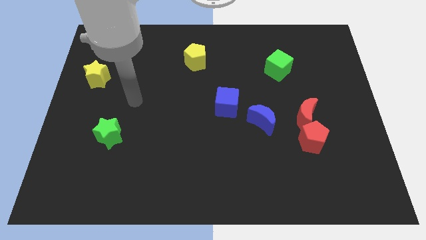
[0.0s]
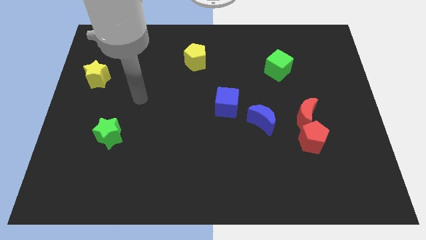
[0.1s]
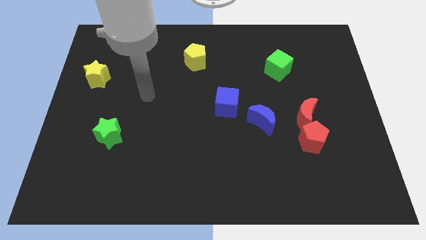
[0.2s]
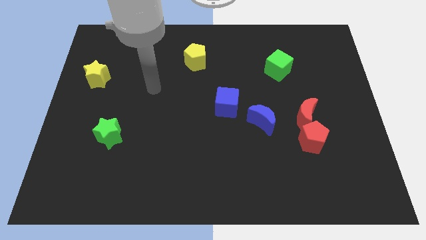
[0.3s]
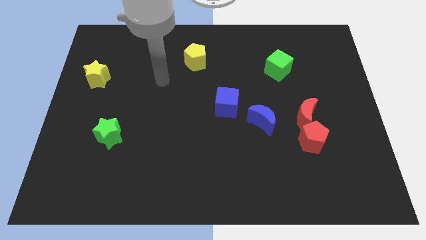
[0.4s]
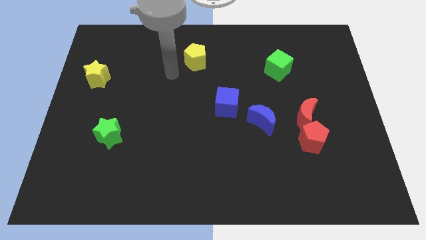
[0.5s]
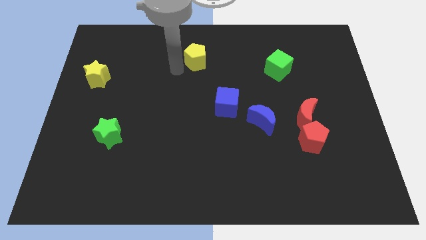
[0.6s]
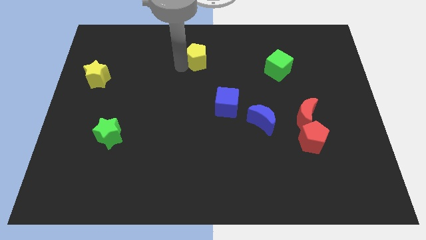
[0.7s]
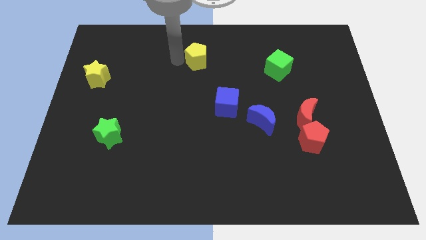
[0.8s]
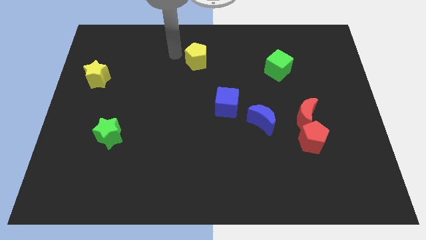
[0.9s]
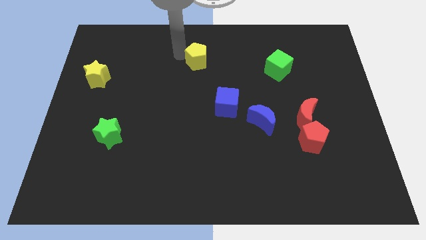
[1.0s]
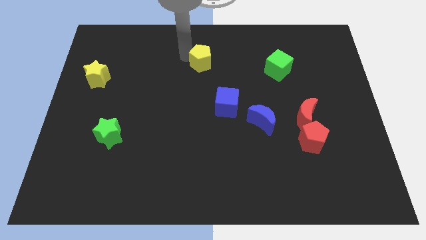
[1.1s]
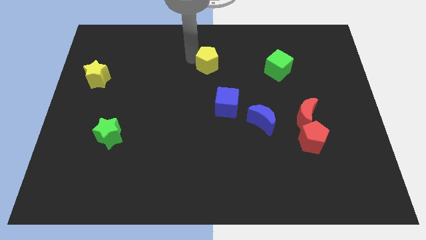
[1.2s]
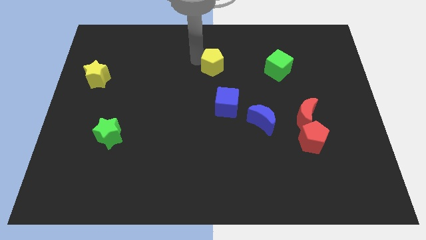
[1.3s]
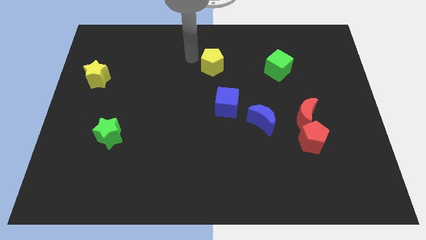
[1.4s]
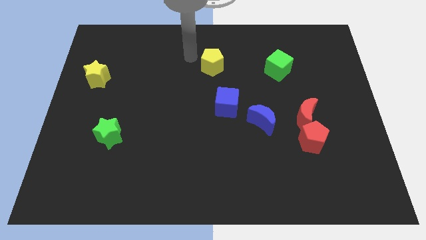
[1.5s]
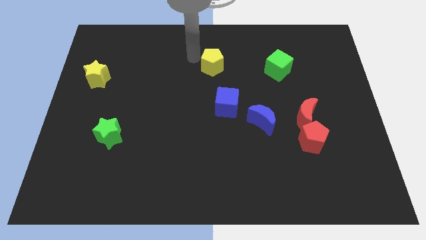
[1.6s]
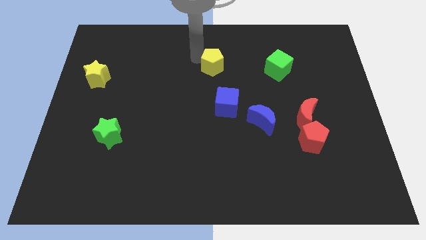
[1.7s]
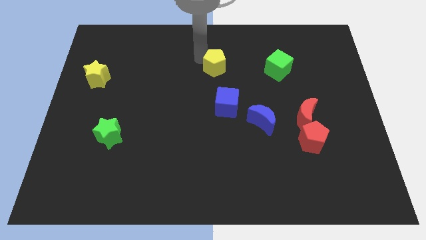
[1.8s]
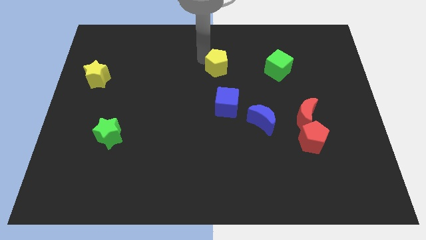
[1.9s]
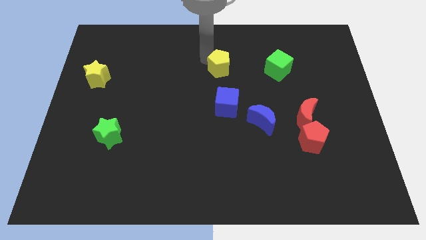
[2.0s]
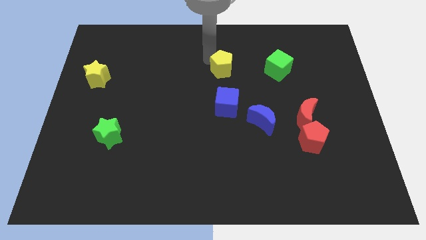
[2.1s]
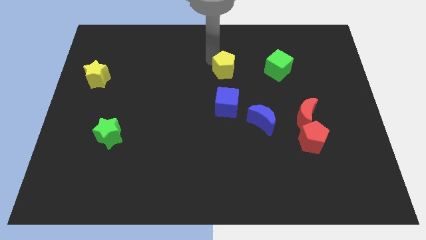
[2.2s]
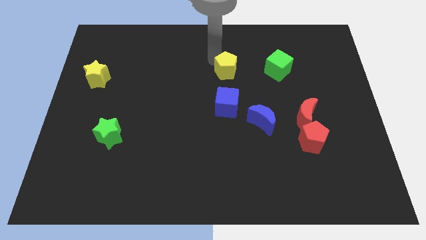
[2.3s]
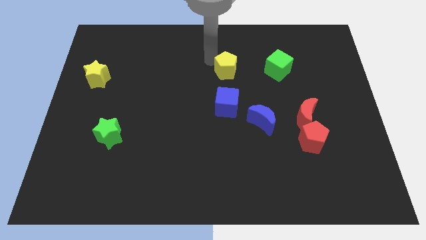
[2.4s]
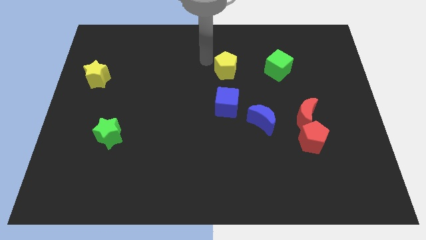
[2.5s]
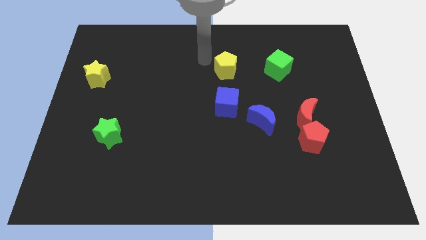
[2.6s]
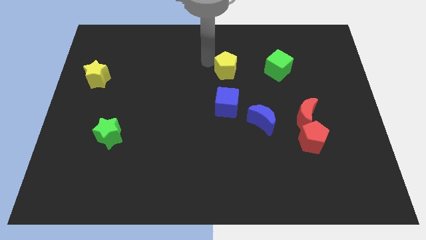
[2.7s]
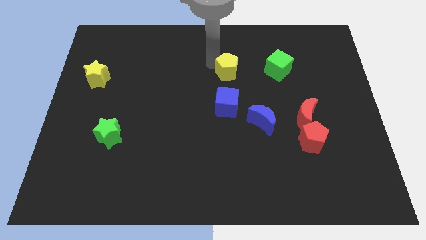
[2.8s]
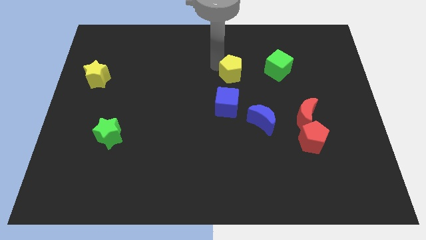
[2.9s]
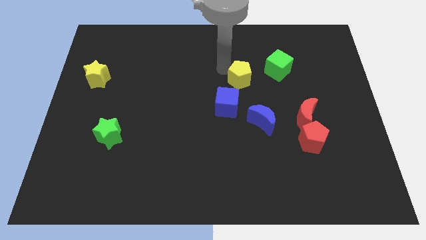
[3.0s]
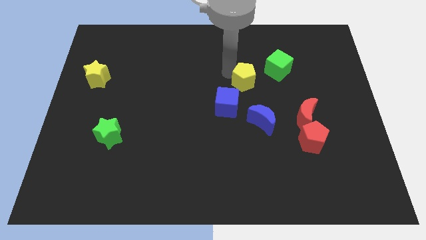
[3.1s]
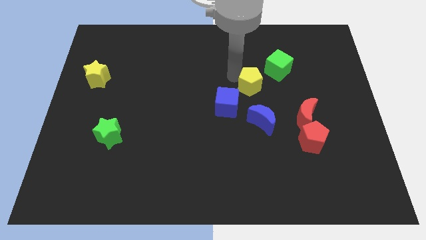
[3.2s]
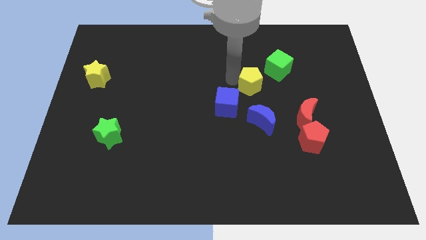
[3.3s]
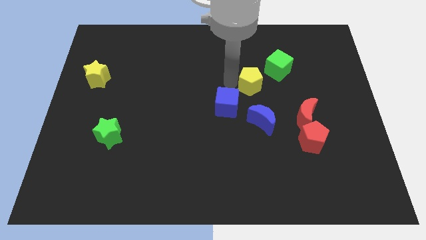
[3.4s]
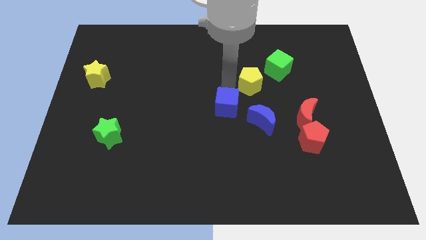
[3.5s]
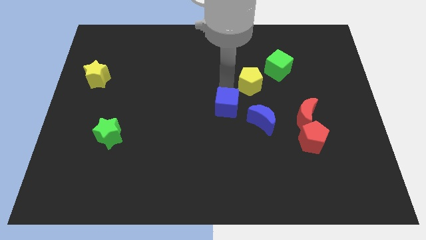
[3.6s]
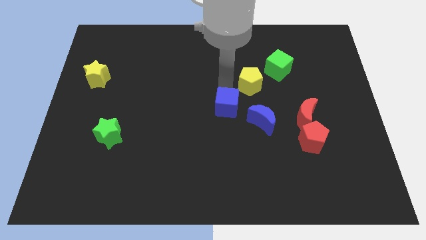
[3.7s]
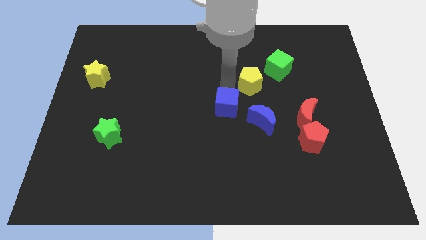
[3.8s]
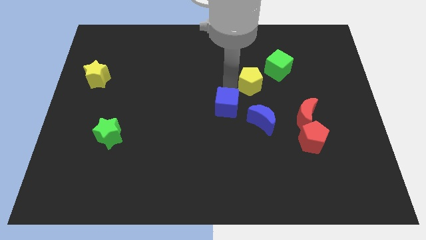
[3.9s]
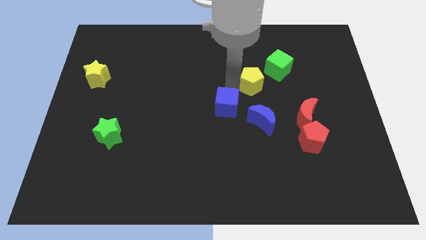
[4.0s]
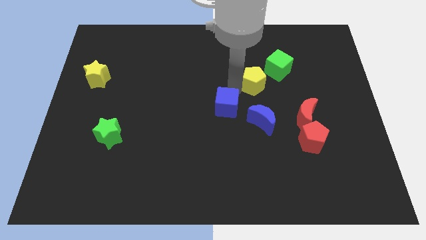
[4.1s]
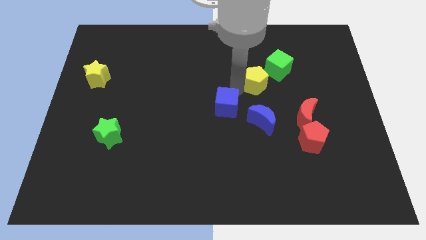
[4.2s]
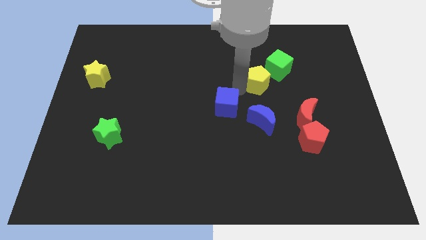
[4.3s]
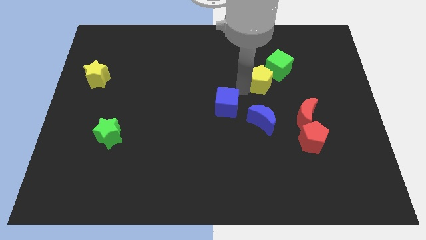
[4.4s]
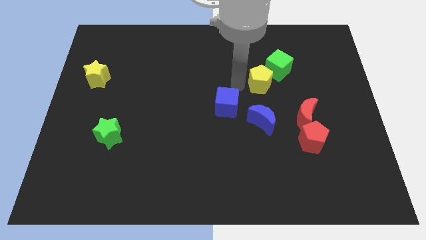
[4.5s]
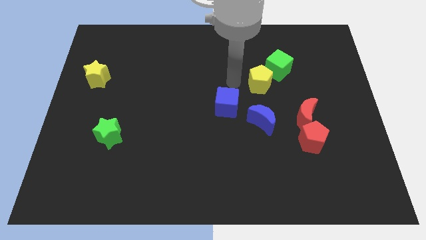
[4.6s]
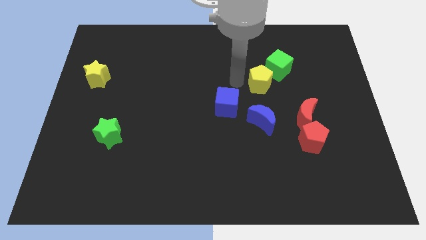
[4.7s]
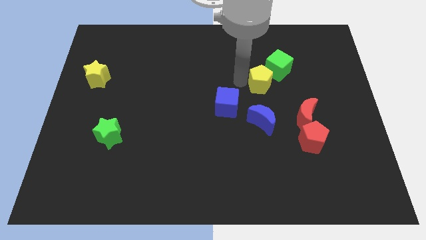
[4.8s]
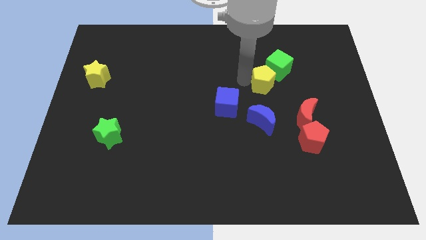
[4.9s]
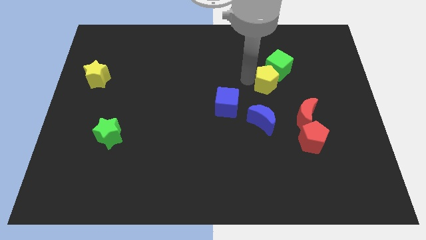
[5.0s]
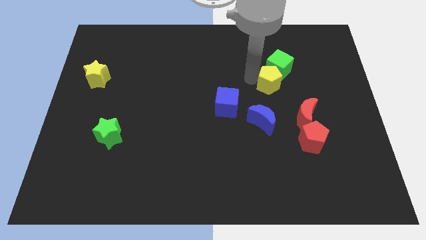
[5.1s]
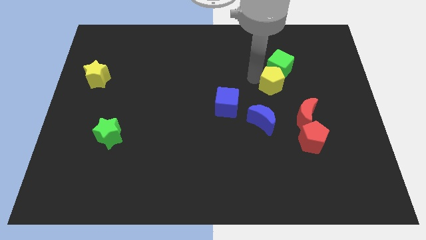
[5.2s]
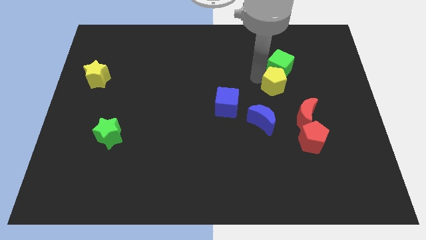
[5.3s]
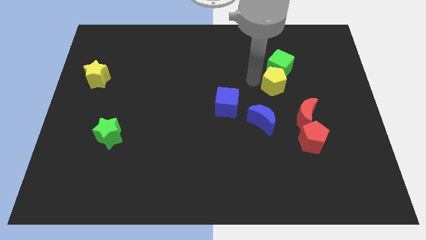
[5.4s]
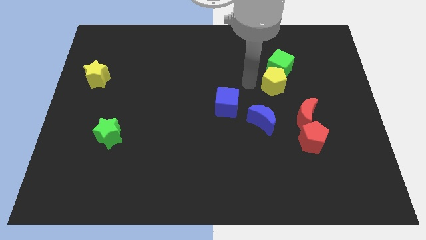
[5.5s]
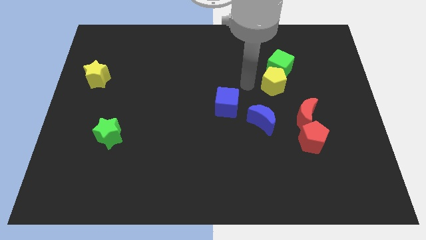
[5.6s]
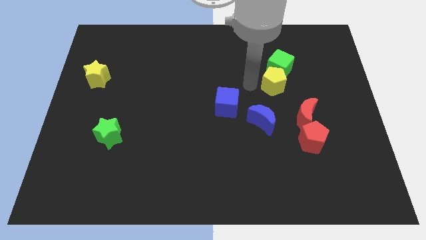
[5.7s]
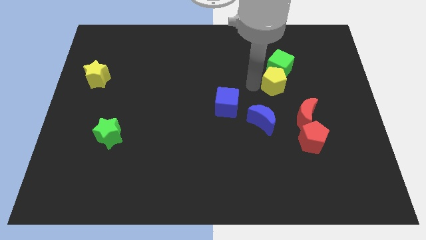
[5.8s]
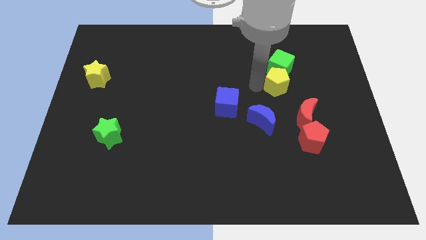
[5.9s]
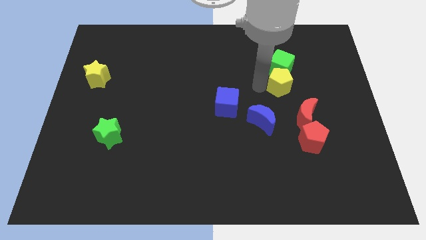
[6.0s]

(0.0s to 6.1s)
move the yellow pentagon above the red moon

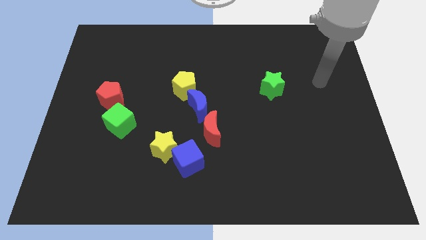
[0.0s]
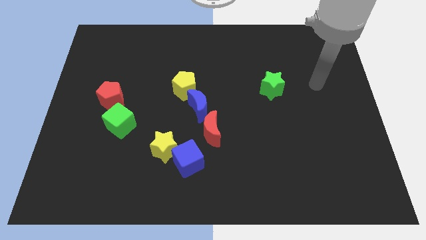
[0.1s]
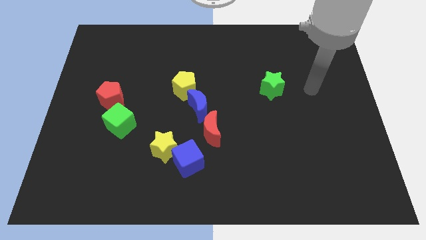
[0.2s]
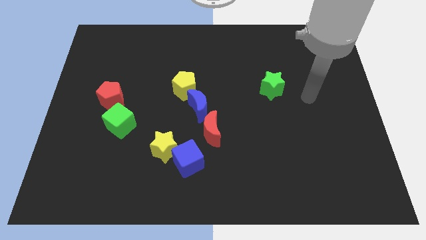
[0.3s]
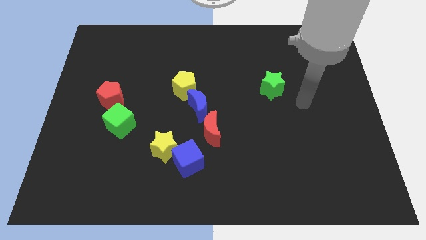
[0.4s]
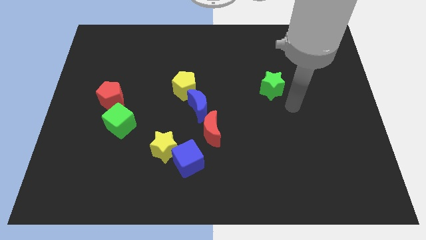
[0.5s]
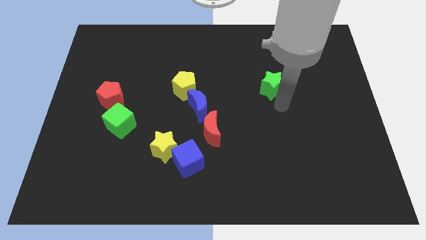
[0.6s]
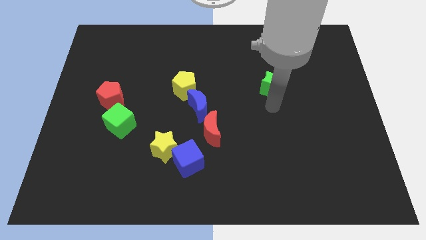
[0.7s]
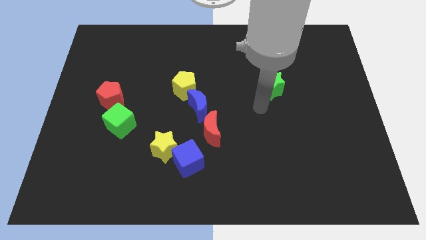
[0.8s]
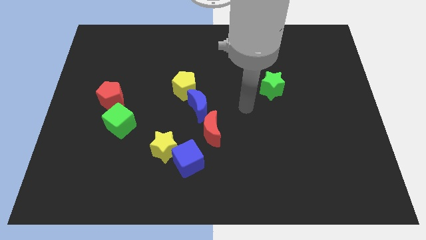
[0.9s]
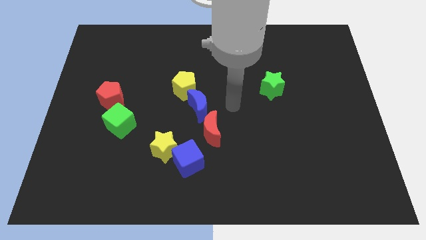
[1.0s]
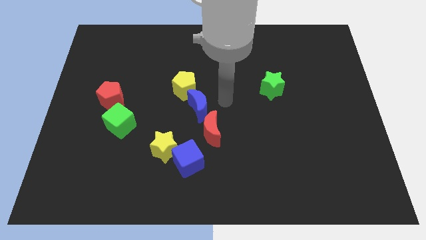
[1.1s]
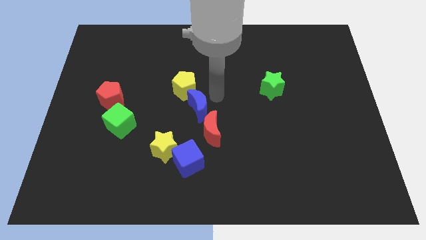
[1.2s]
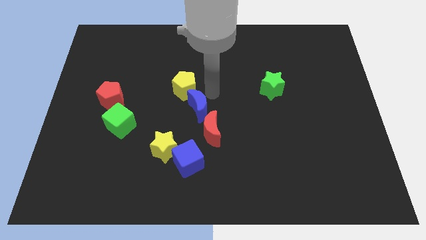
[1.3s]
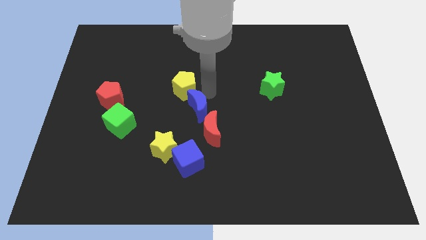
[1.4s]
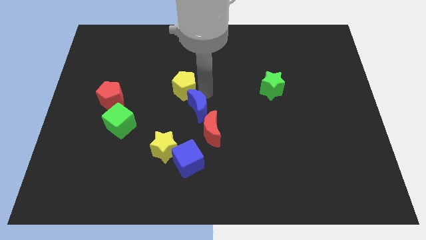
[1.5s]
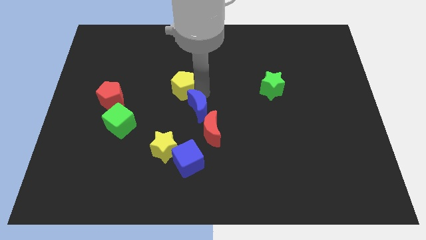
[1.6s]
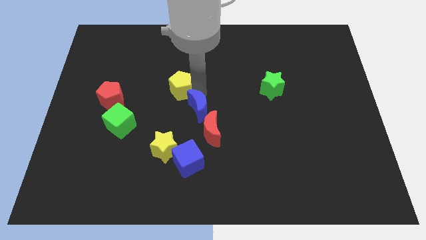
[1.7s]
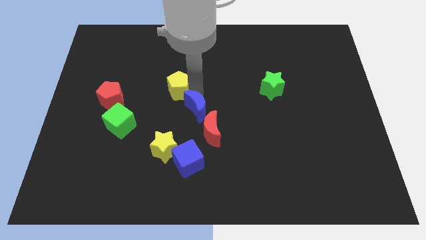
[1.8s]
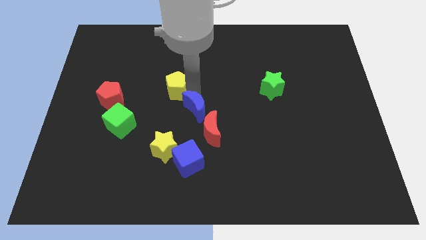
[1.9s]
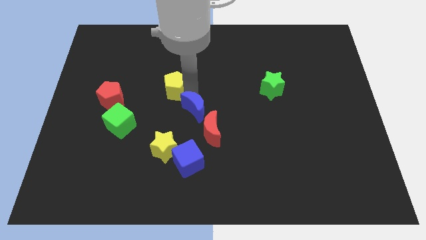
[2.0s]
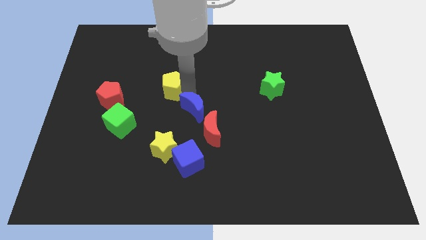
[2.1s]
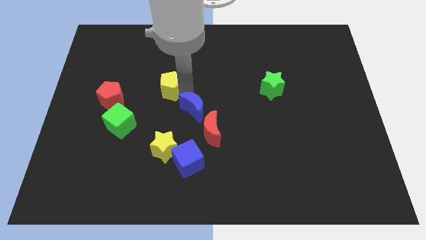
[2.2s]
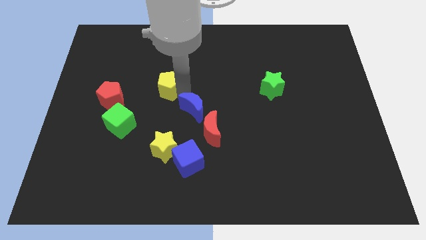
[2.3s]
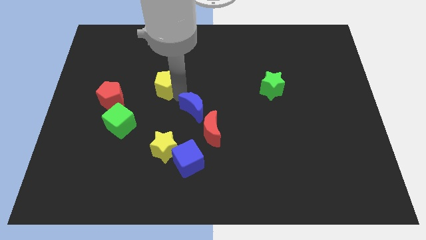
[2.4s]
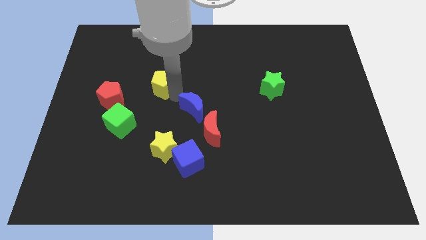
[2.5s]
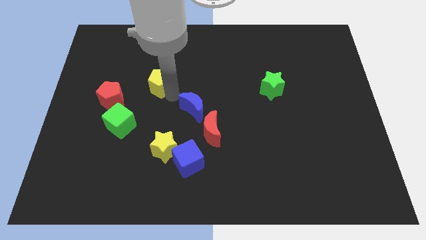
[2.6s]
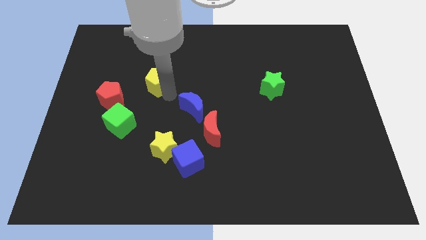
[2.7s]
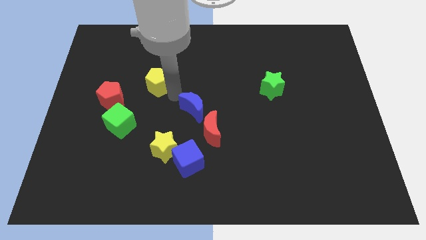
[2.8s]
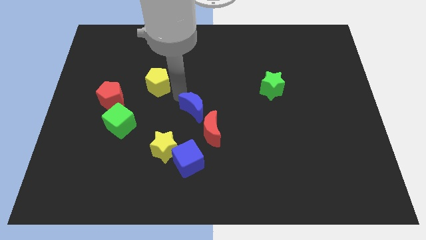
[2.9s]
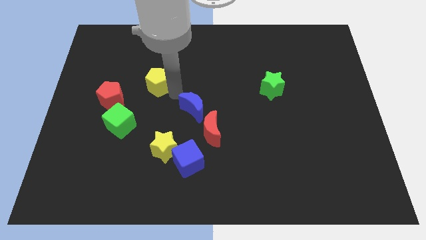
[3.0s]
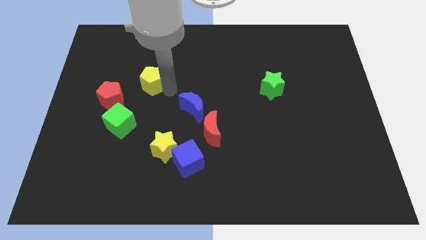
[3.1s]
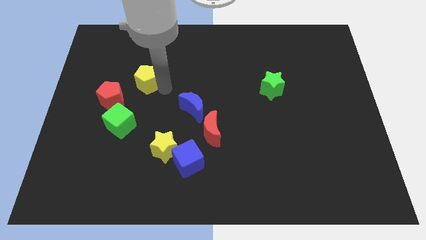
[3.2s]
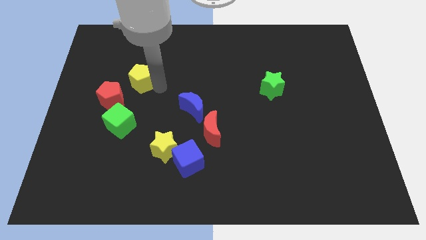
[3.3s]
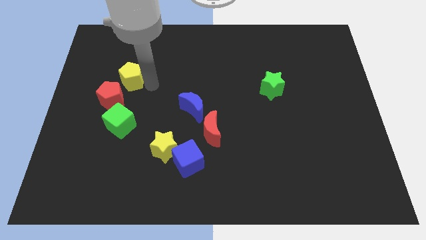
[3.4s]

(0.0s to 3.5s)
put the yellow pentagon above the red pentagon
